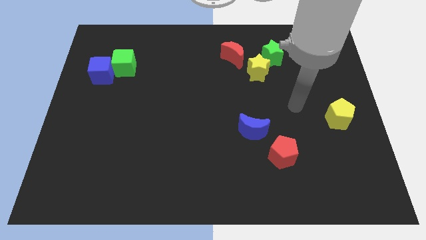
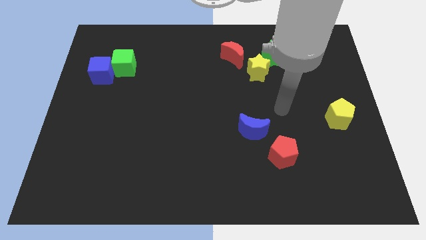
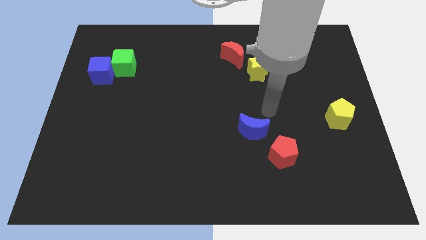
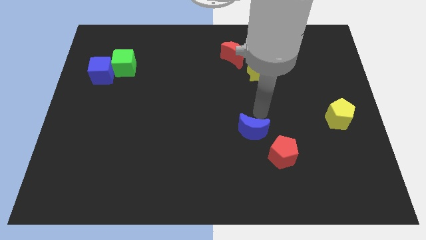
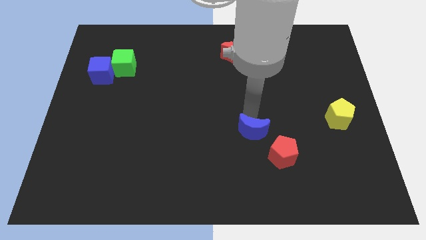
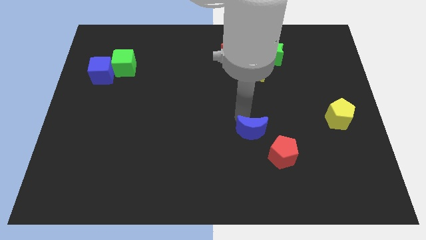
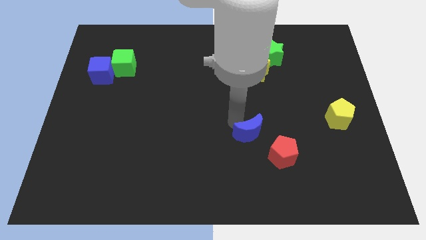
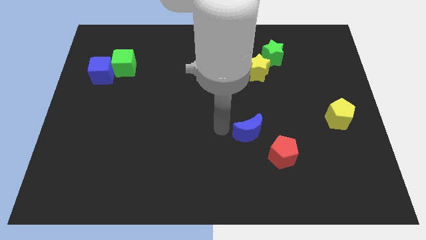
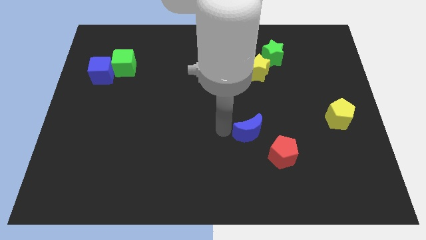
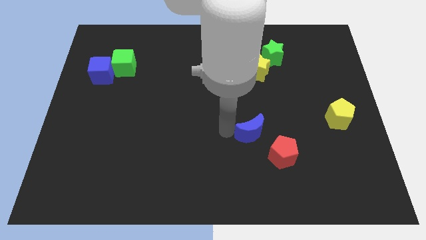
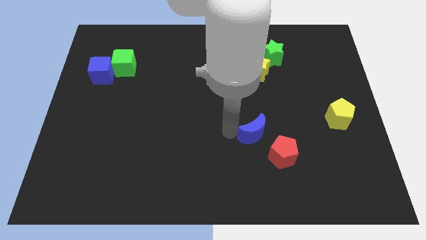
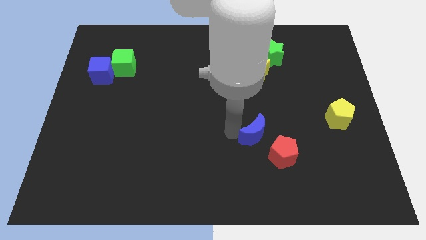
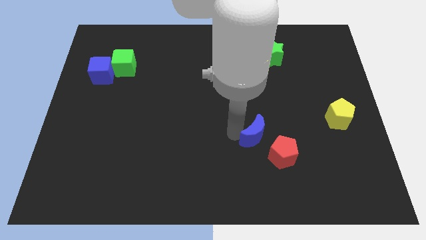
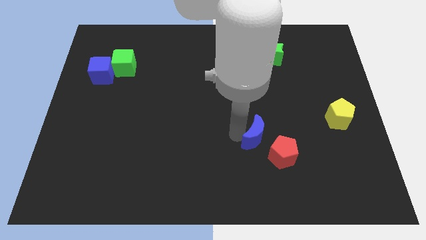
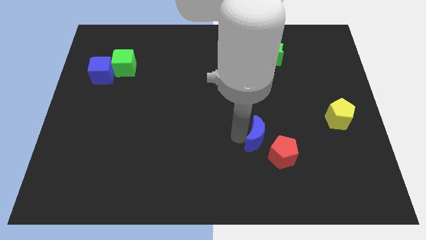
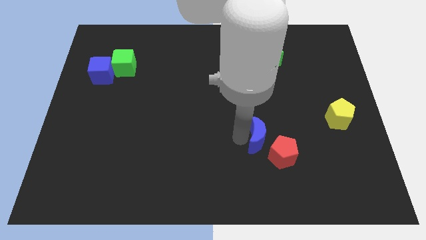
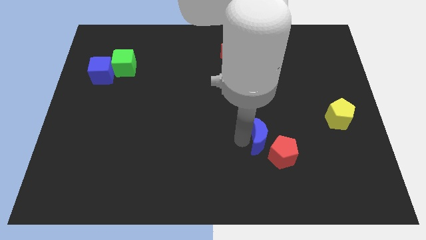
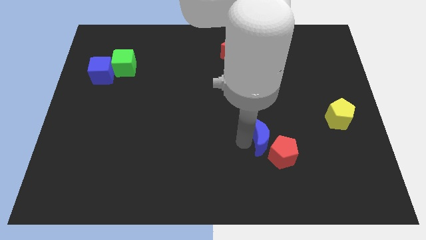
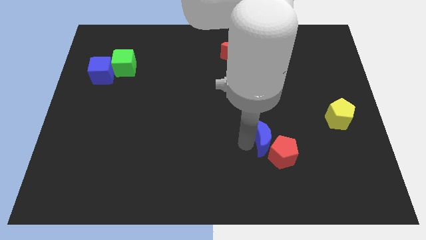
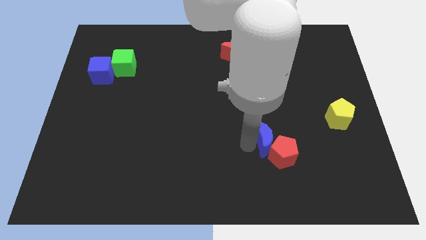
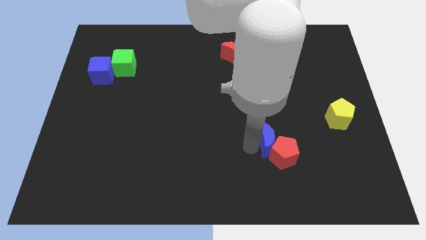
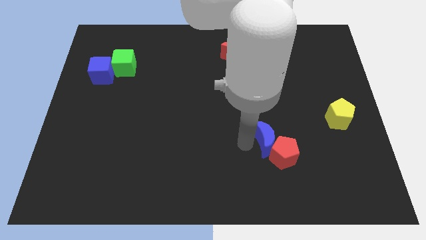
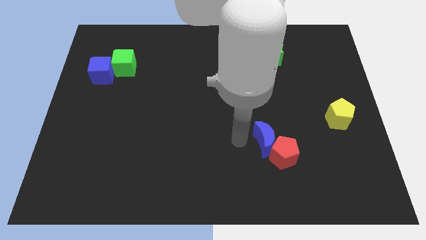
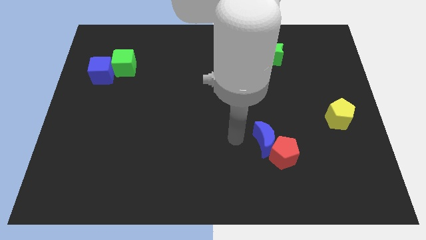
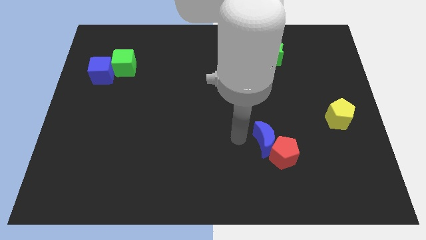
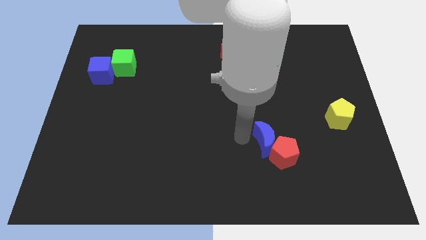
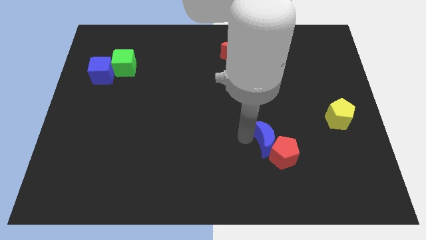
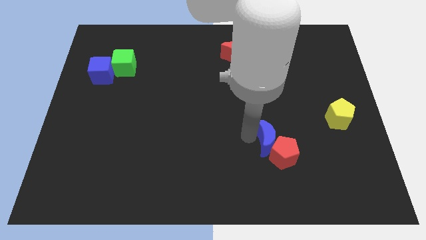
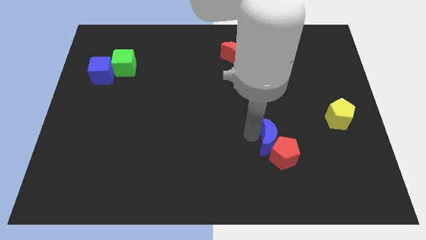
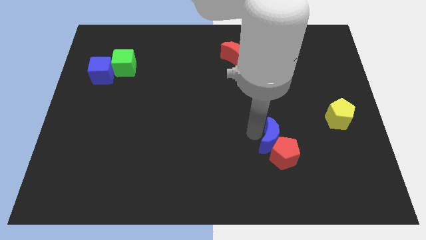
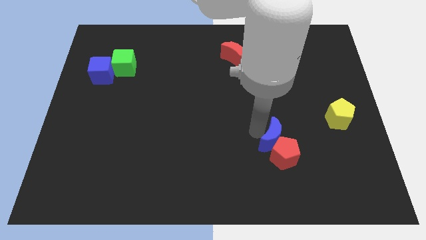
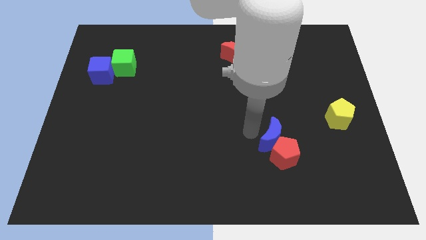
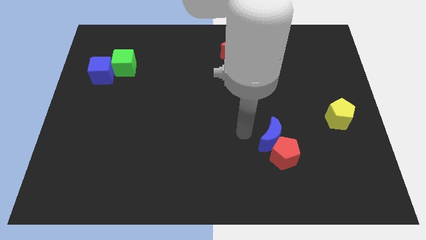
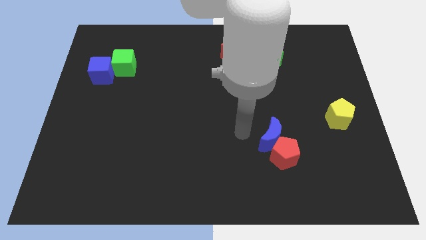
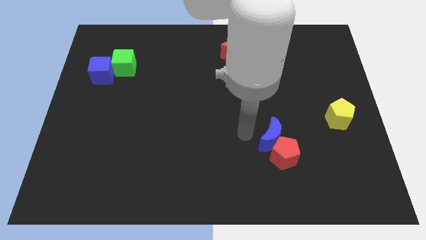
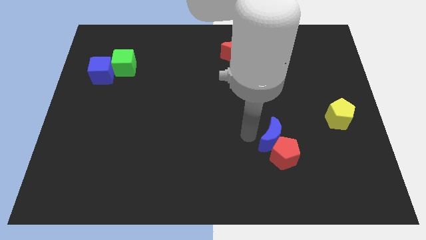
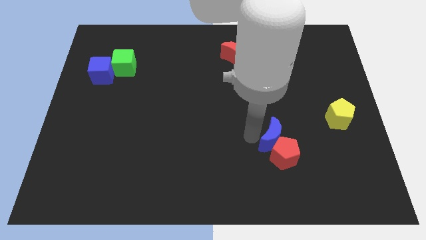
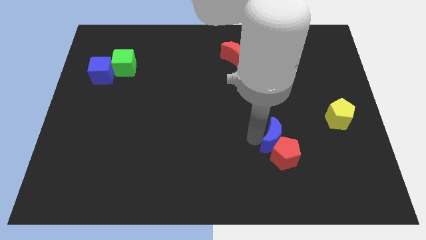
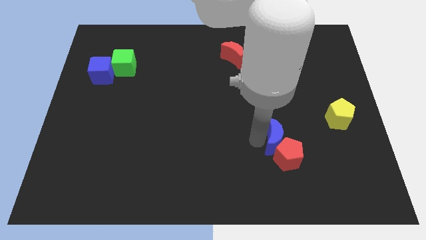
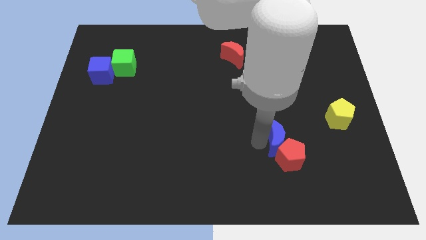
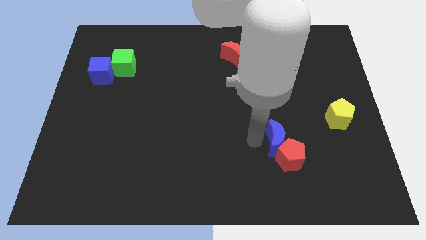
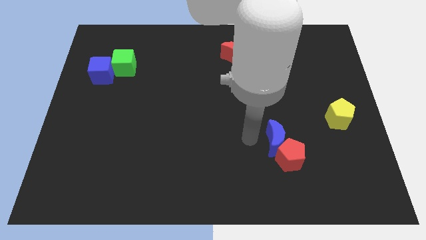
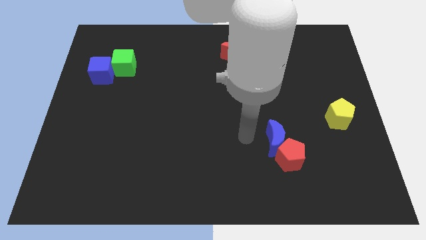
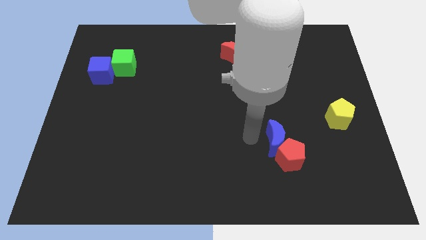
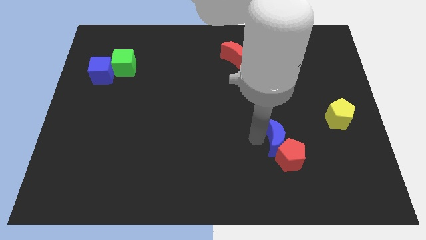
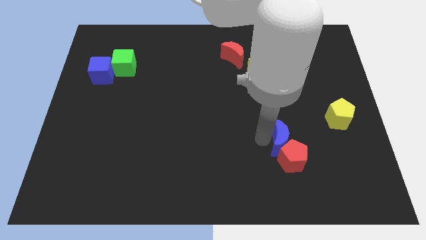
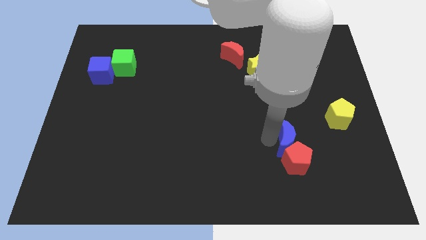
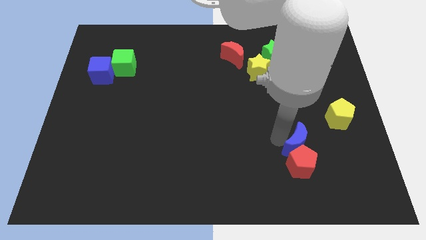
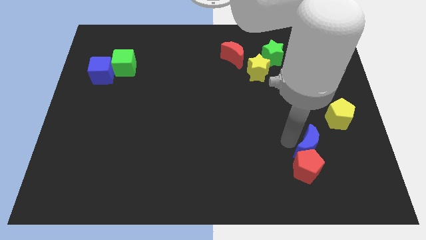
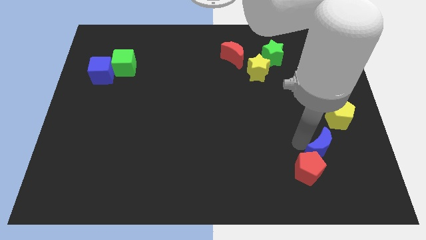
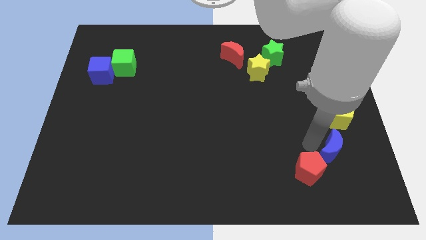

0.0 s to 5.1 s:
push the blue moon to the right of the red pentagon

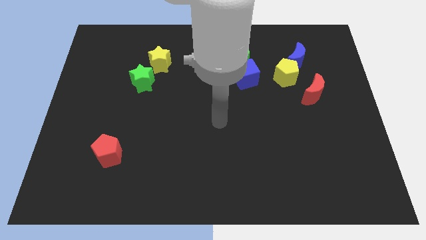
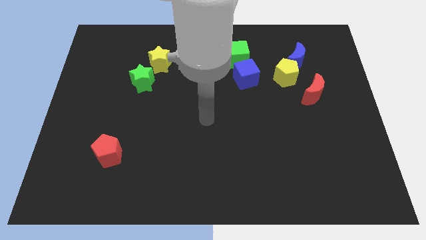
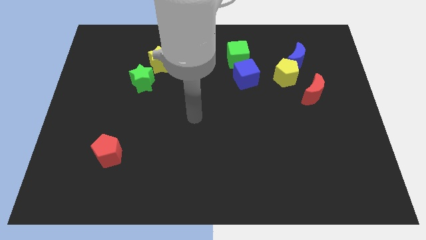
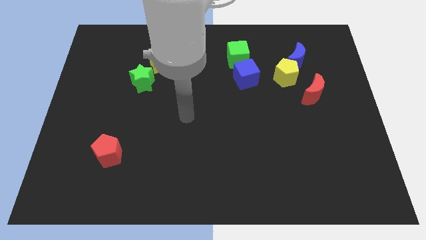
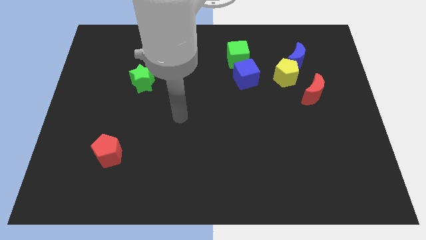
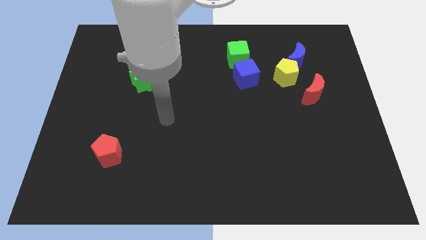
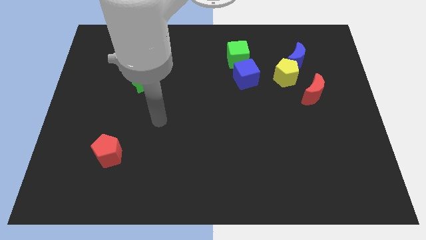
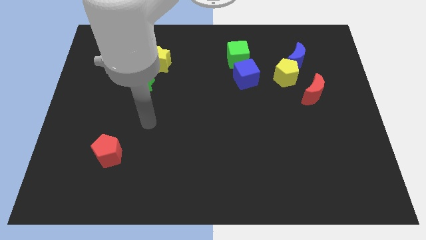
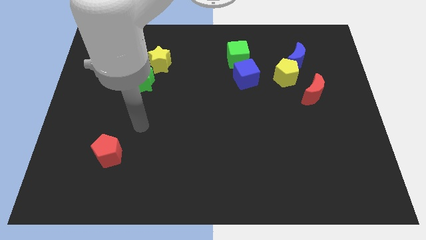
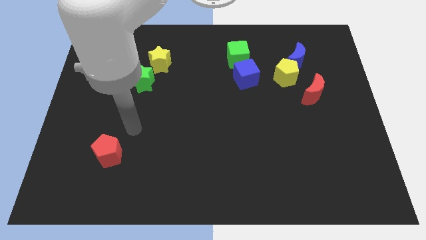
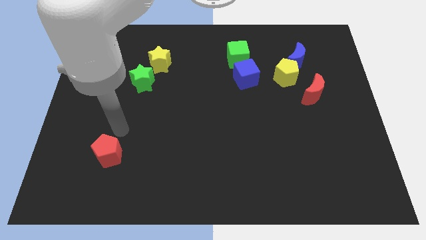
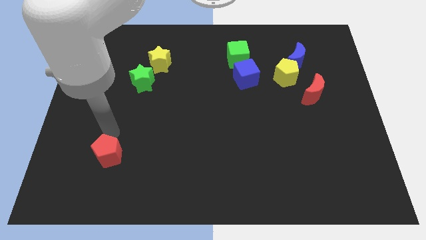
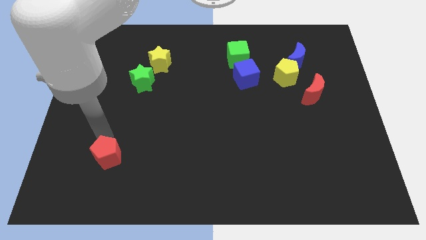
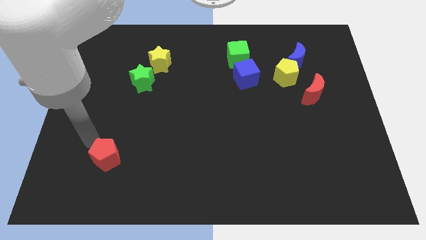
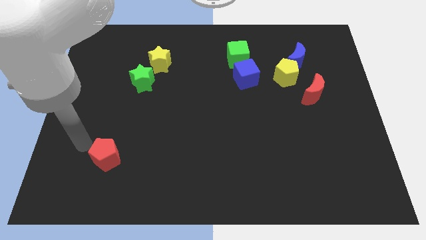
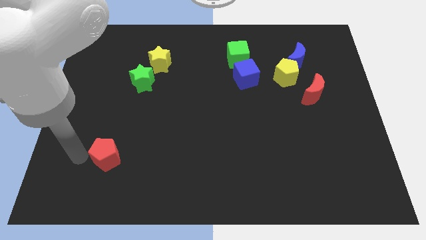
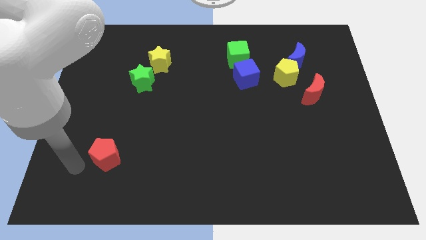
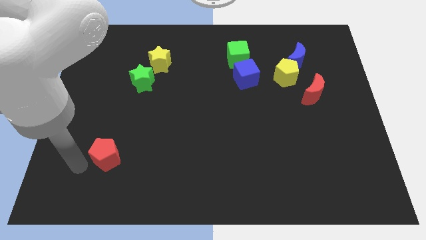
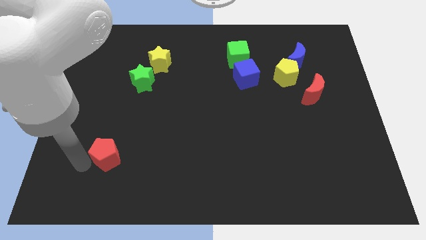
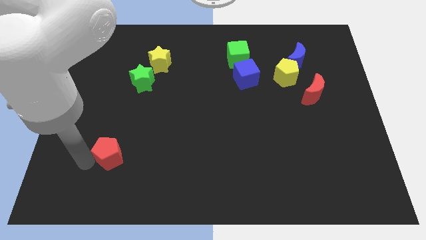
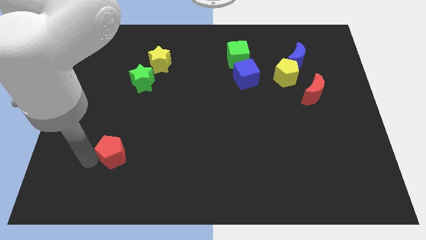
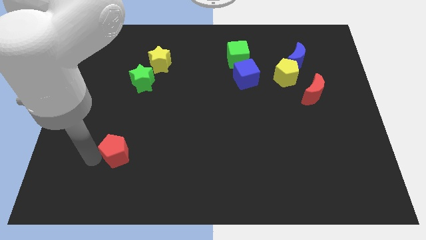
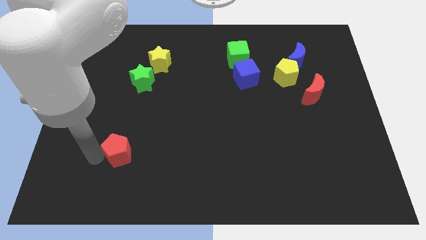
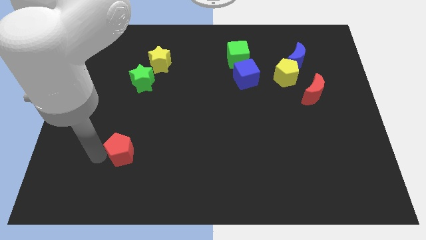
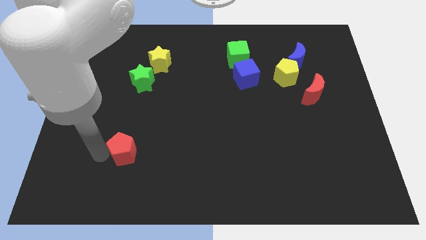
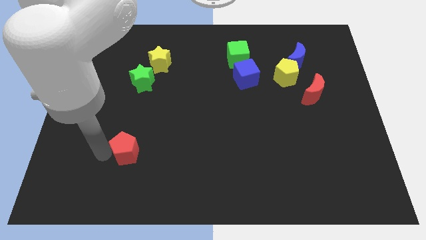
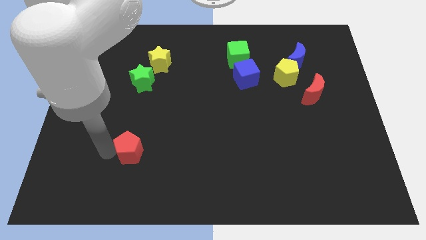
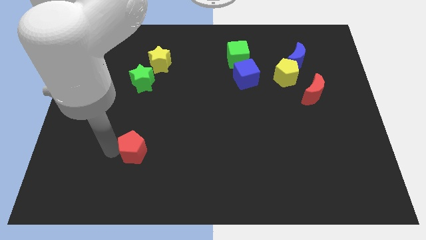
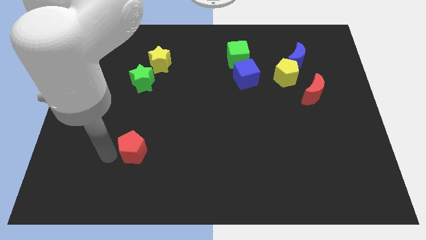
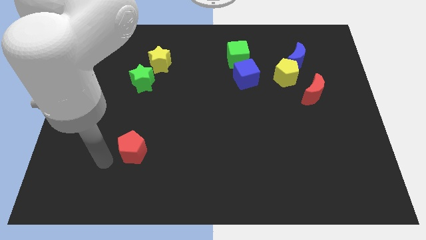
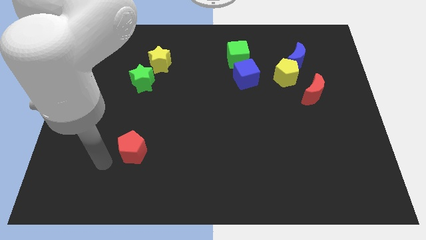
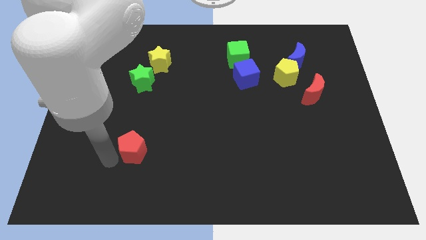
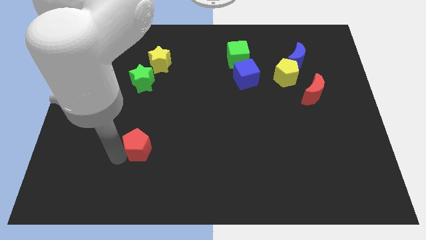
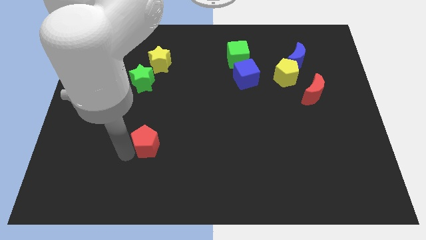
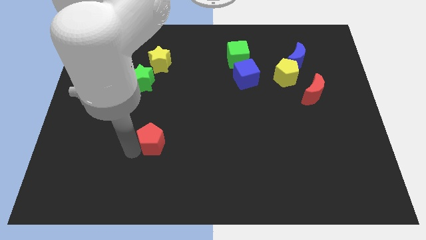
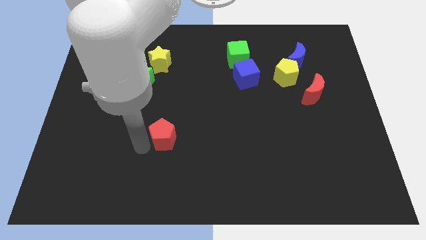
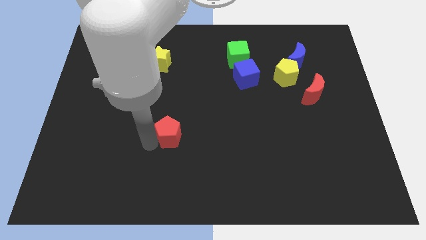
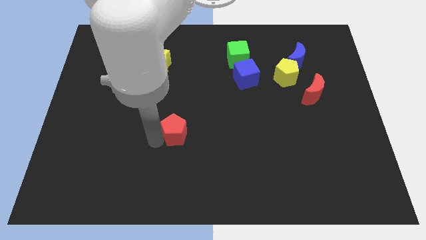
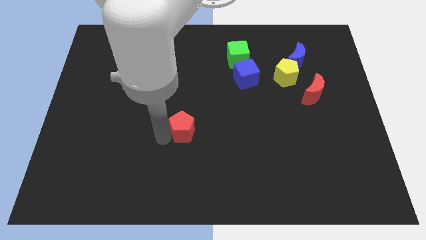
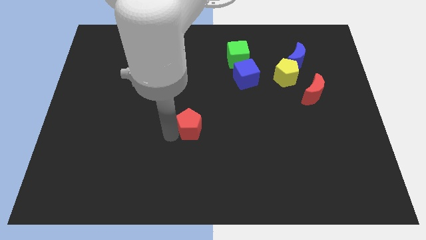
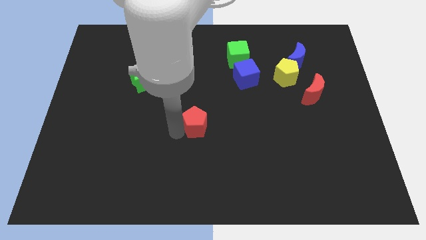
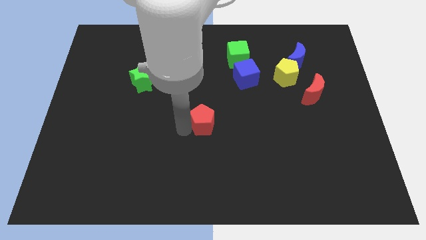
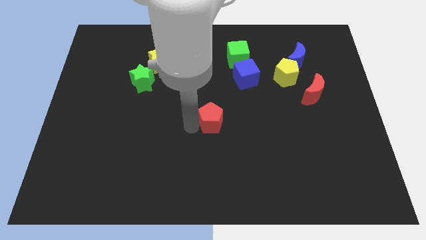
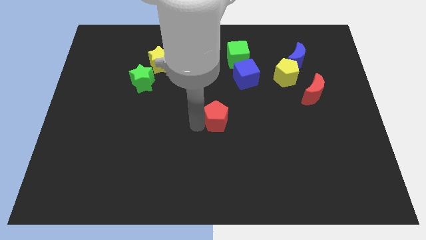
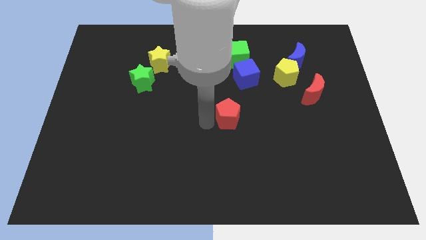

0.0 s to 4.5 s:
move the red pentagon below the blue cube
